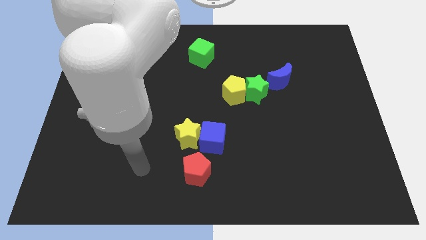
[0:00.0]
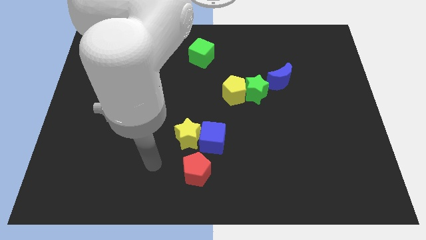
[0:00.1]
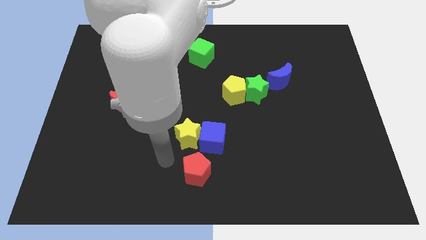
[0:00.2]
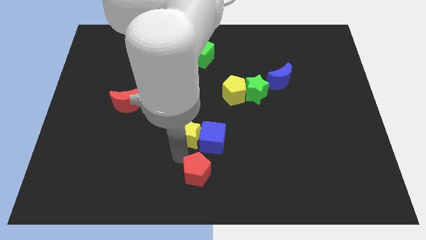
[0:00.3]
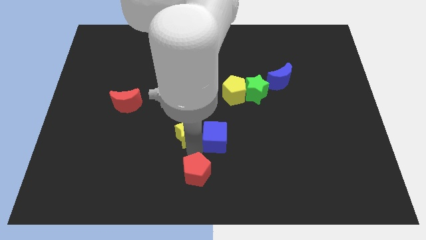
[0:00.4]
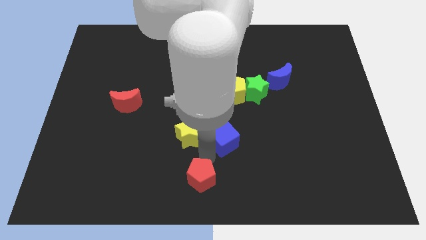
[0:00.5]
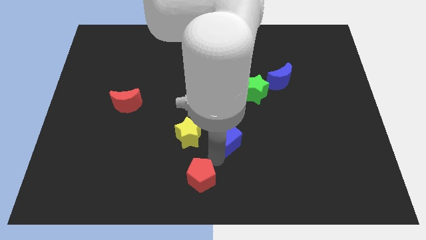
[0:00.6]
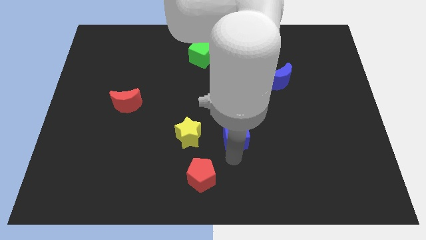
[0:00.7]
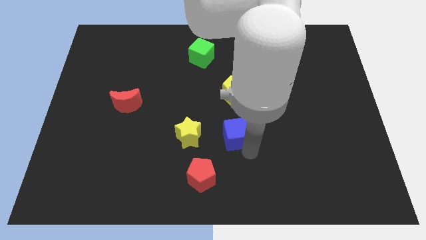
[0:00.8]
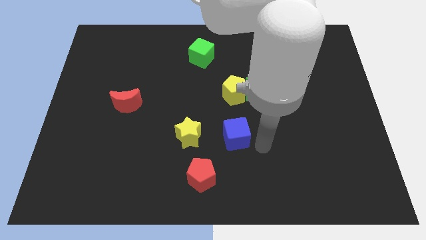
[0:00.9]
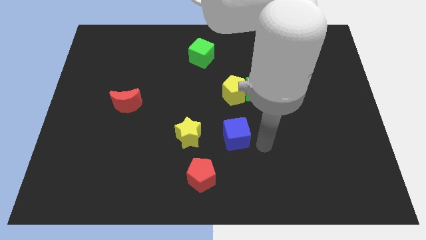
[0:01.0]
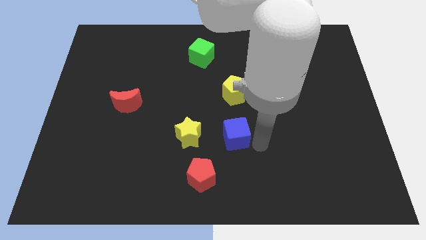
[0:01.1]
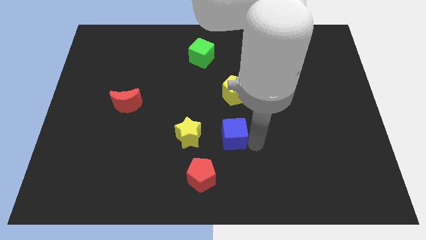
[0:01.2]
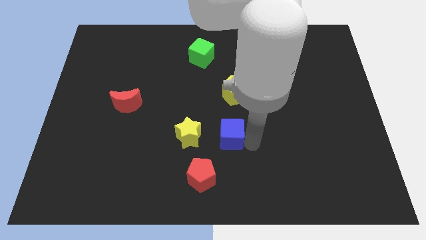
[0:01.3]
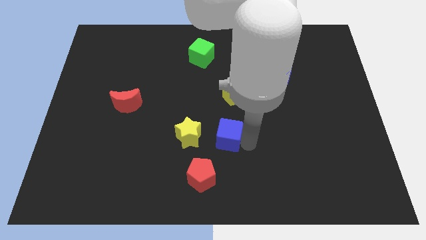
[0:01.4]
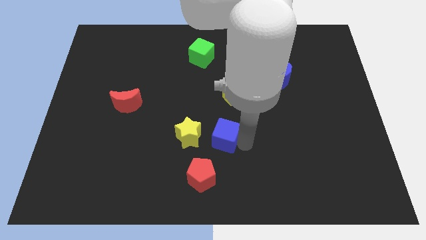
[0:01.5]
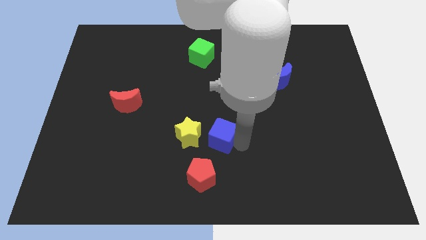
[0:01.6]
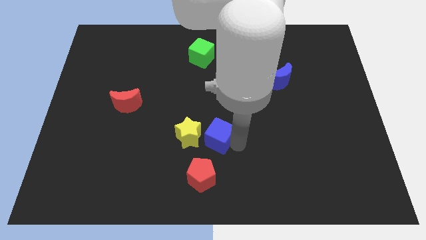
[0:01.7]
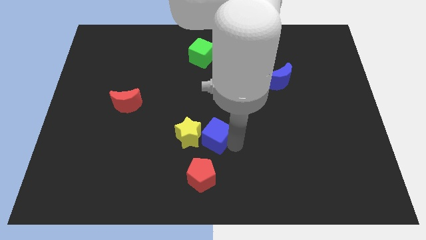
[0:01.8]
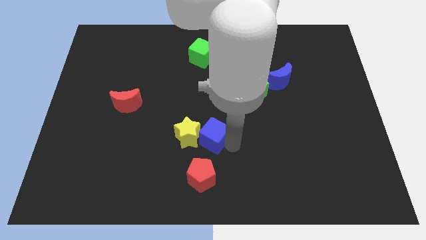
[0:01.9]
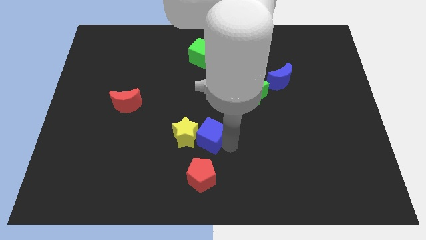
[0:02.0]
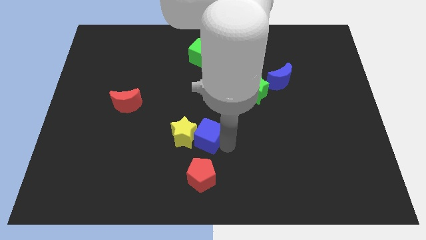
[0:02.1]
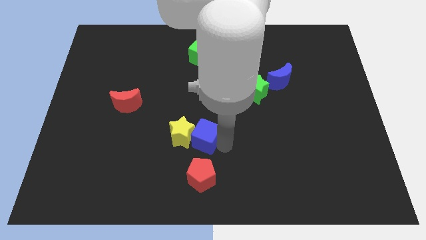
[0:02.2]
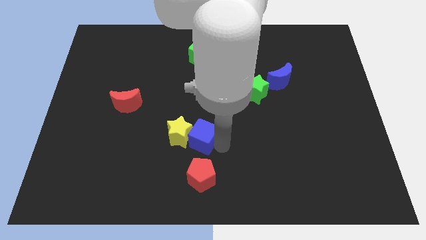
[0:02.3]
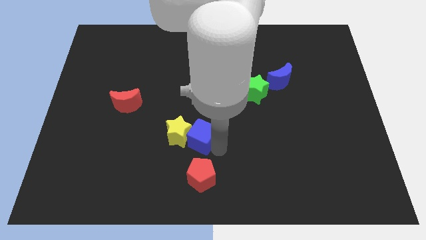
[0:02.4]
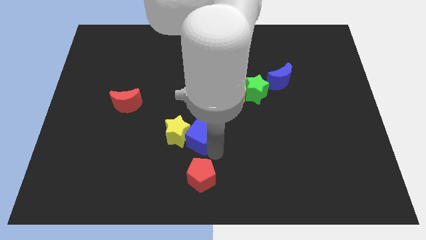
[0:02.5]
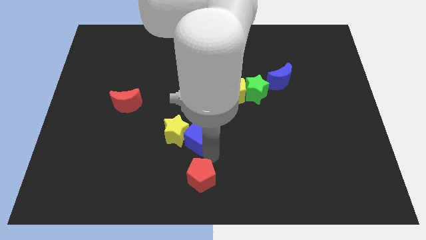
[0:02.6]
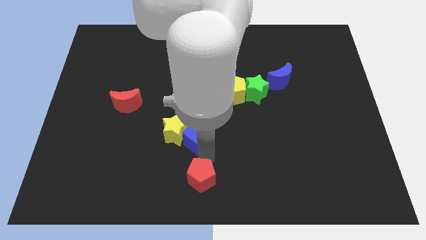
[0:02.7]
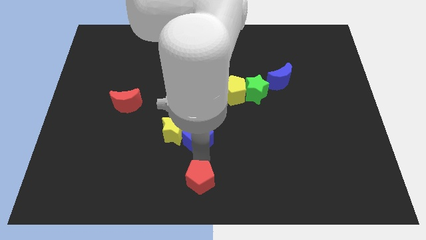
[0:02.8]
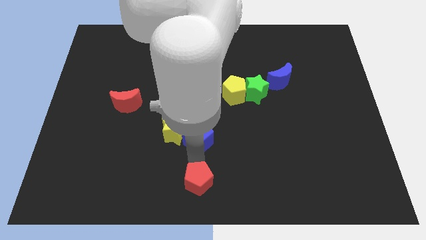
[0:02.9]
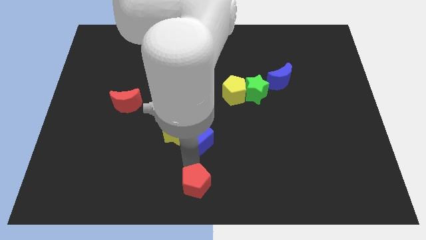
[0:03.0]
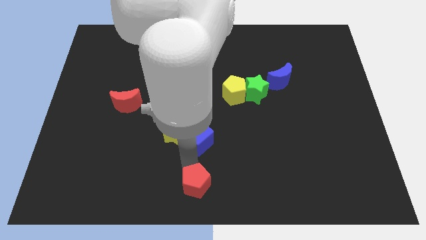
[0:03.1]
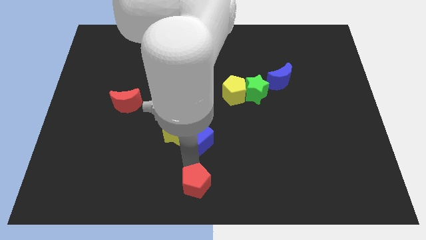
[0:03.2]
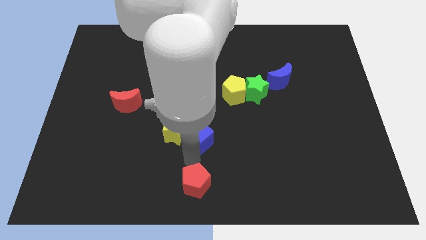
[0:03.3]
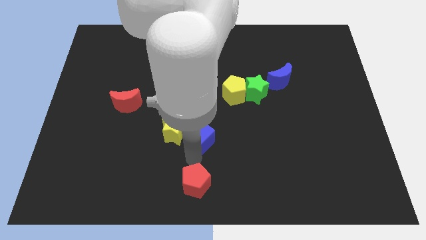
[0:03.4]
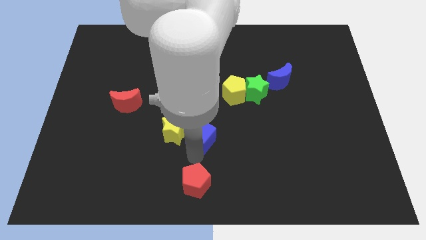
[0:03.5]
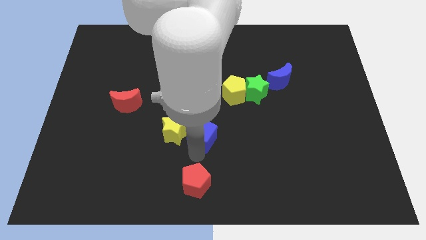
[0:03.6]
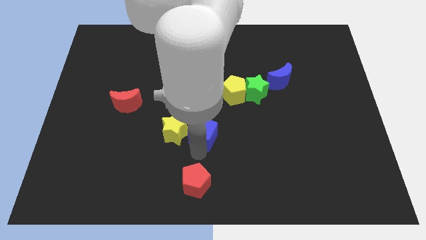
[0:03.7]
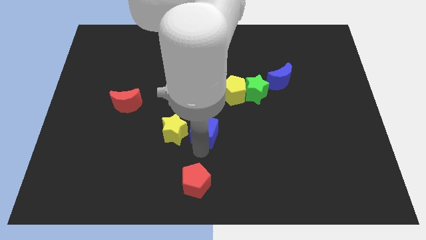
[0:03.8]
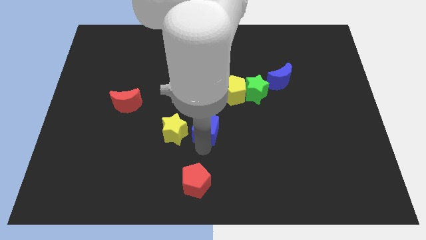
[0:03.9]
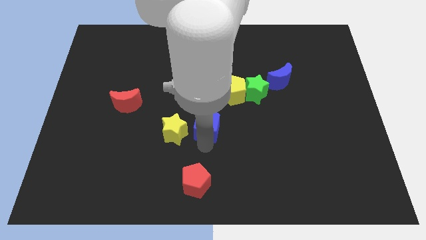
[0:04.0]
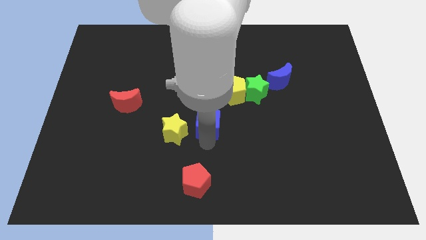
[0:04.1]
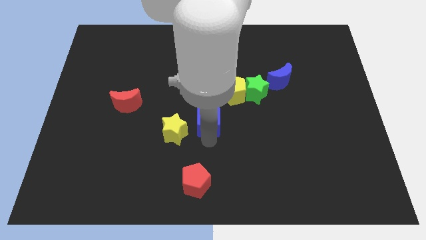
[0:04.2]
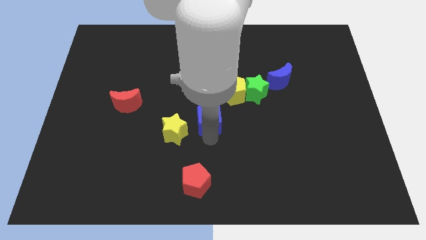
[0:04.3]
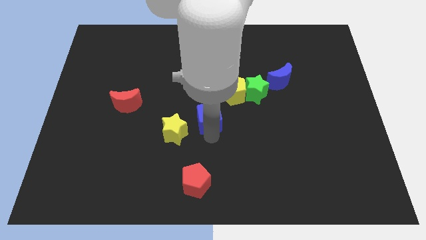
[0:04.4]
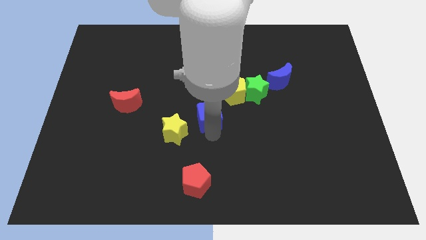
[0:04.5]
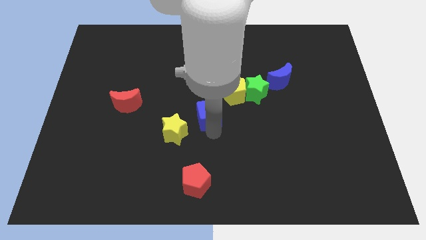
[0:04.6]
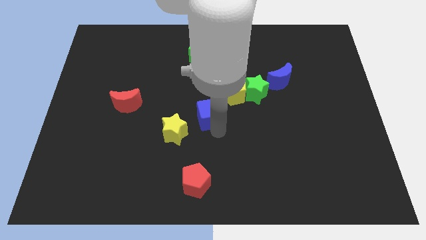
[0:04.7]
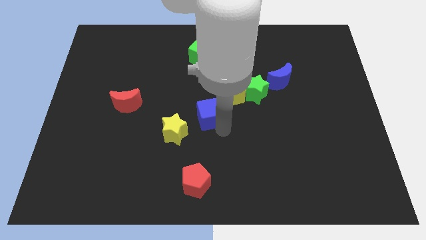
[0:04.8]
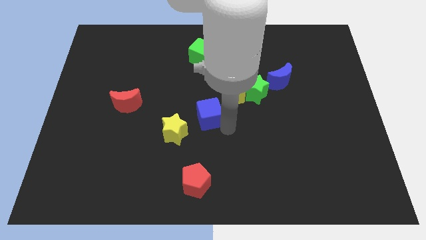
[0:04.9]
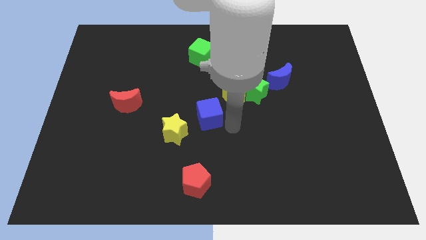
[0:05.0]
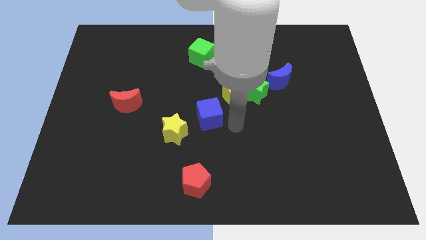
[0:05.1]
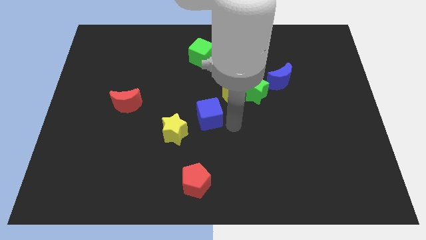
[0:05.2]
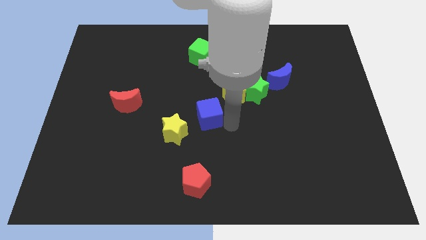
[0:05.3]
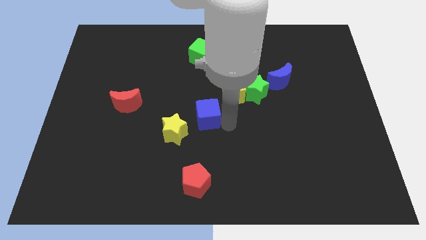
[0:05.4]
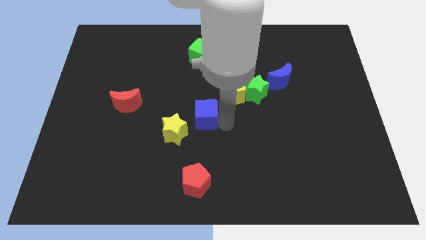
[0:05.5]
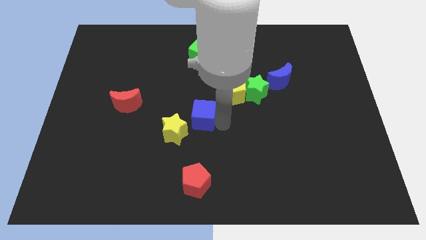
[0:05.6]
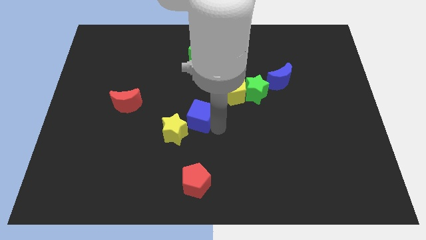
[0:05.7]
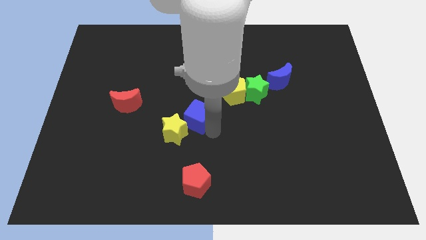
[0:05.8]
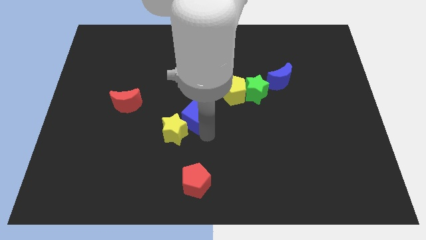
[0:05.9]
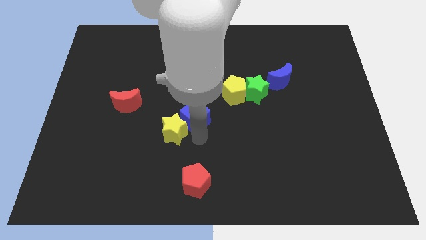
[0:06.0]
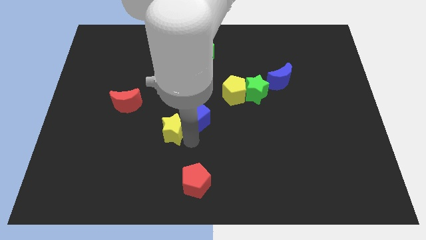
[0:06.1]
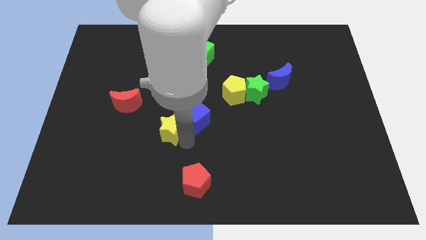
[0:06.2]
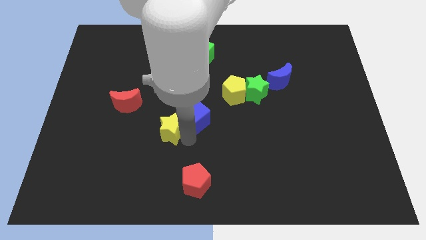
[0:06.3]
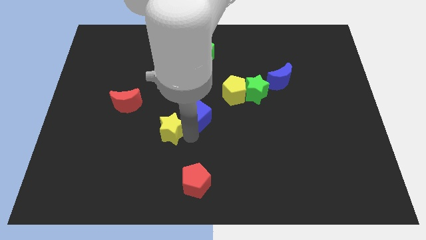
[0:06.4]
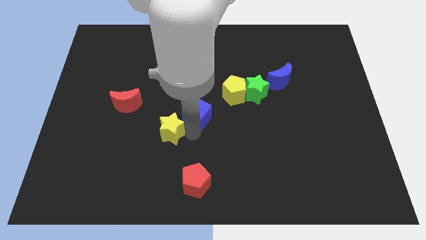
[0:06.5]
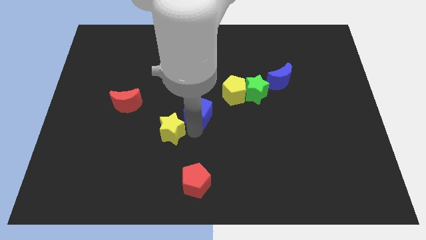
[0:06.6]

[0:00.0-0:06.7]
push the blue cube upwards slightly

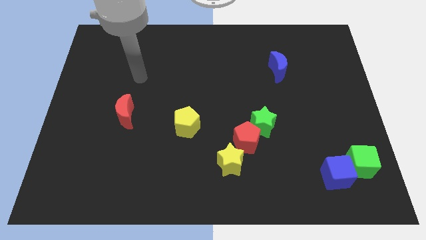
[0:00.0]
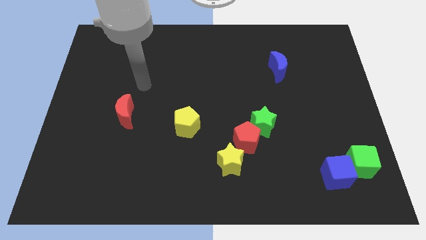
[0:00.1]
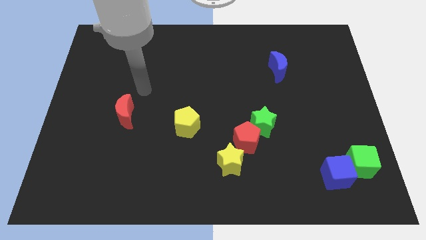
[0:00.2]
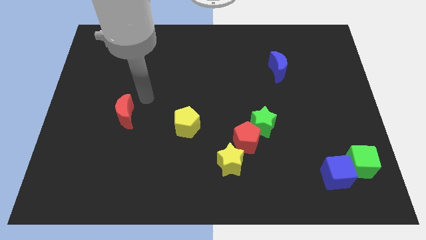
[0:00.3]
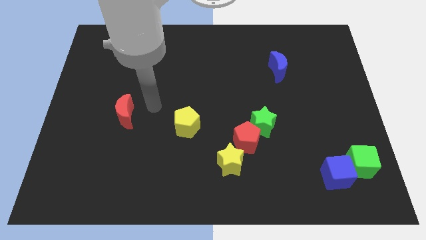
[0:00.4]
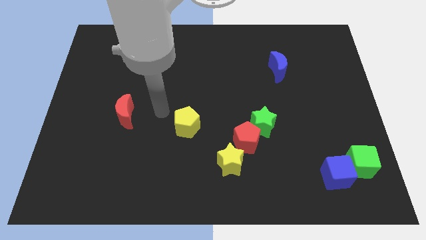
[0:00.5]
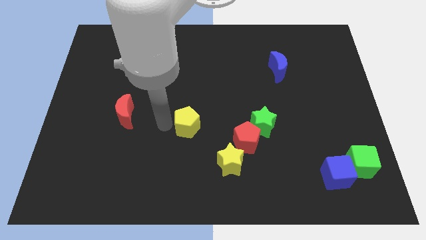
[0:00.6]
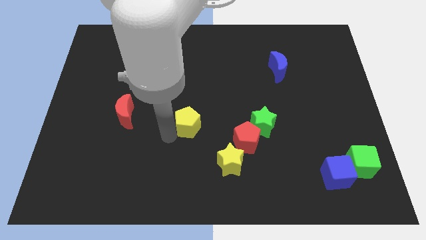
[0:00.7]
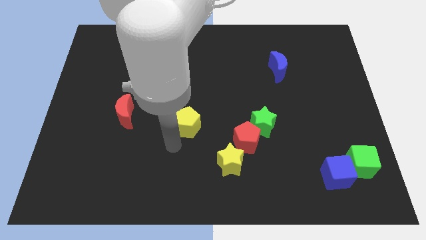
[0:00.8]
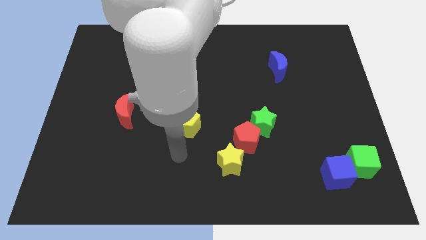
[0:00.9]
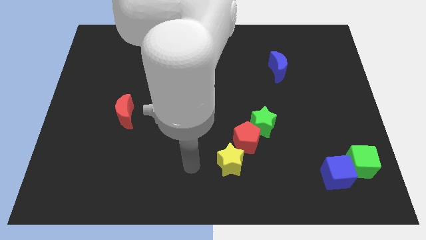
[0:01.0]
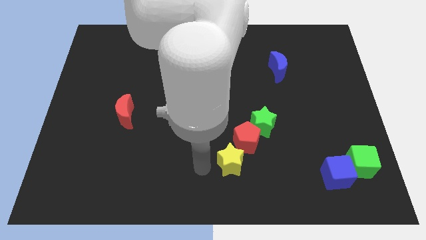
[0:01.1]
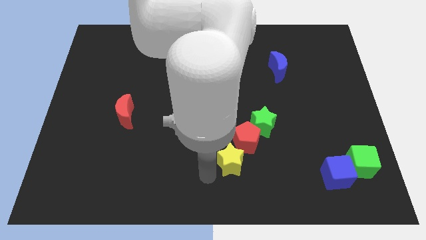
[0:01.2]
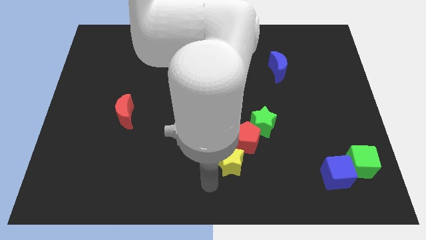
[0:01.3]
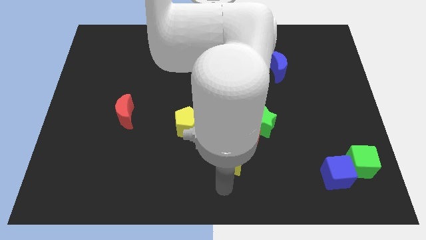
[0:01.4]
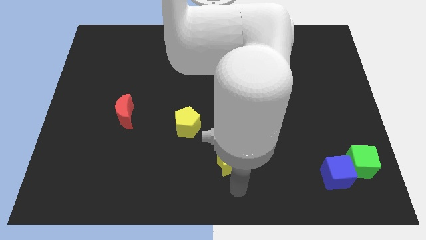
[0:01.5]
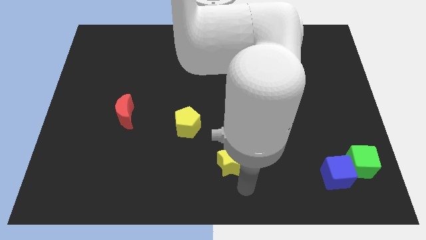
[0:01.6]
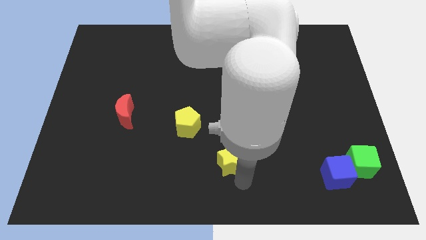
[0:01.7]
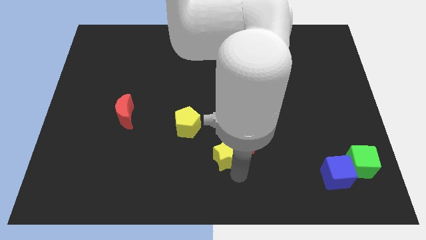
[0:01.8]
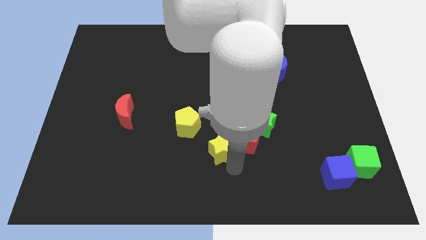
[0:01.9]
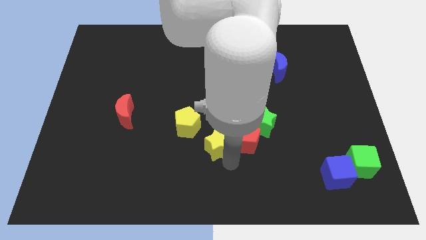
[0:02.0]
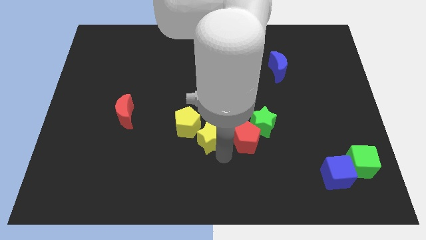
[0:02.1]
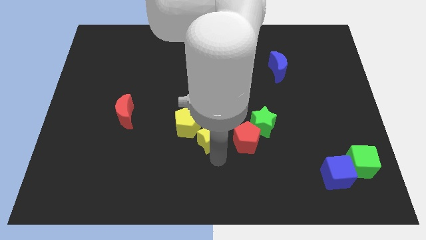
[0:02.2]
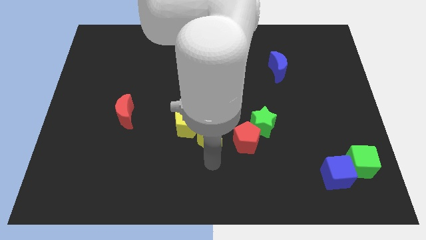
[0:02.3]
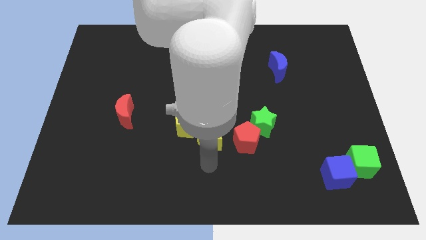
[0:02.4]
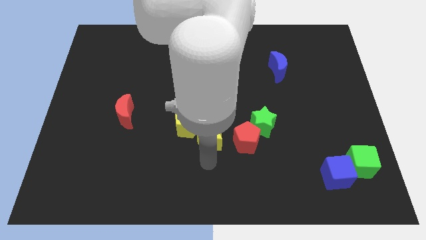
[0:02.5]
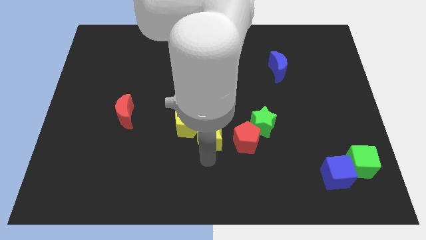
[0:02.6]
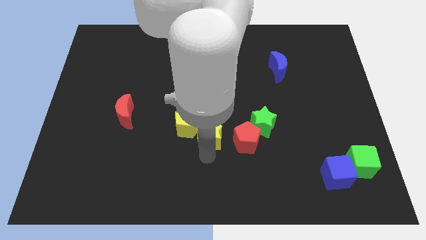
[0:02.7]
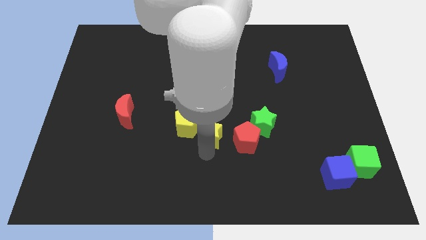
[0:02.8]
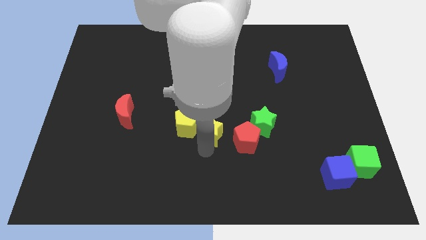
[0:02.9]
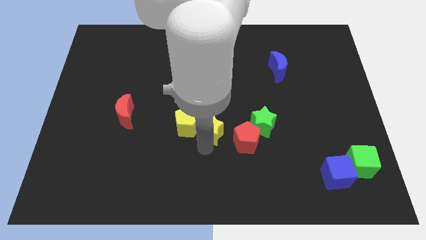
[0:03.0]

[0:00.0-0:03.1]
slide the yellow star slightly up
